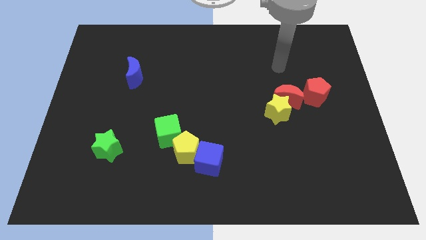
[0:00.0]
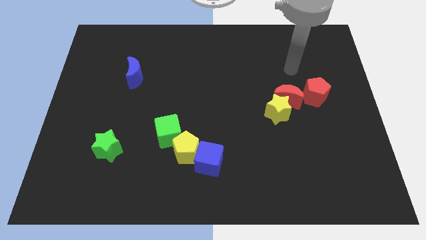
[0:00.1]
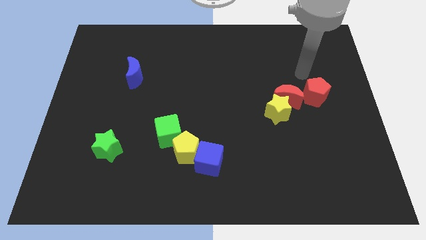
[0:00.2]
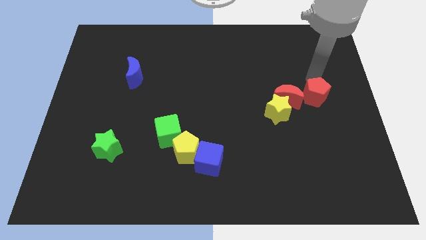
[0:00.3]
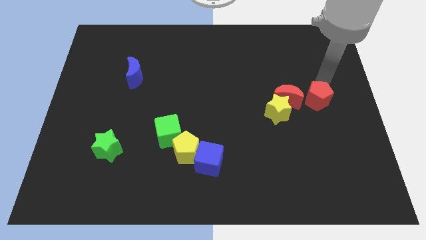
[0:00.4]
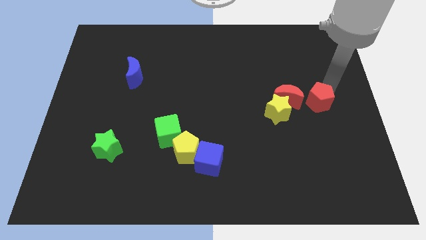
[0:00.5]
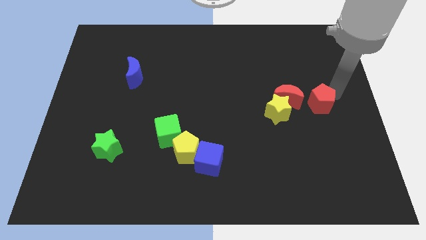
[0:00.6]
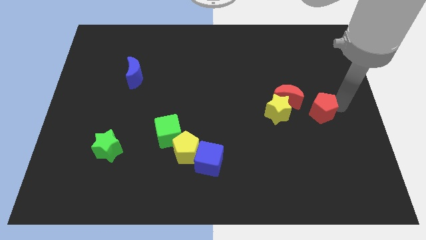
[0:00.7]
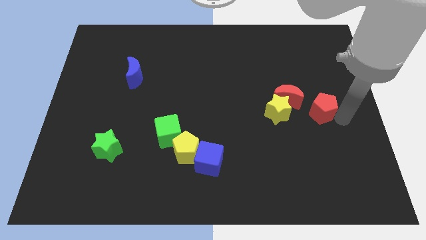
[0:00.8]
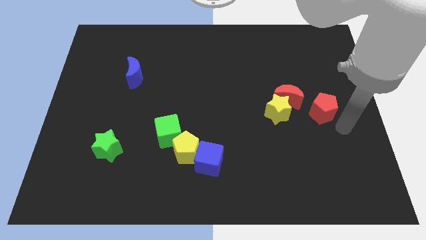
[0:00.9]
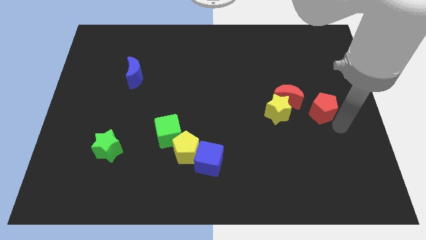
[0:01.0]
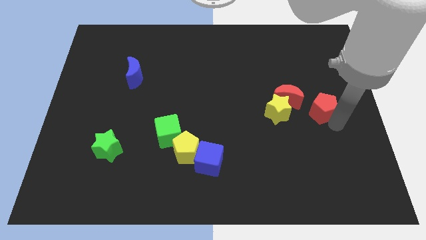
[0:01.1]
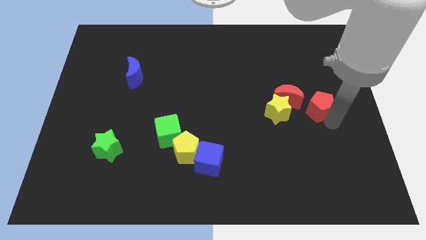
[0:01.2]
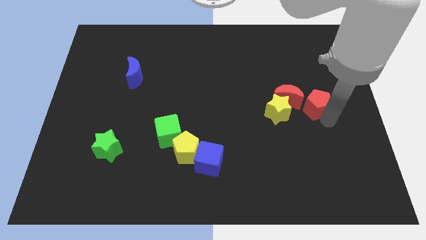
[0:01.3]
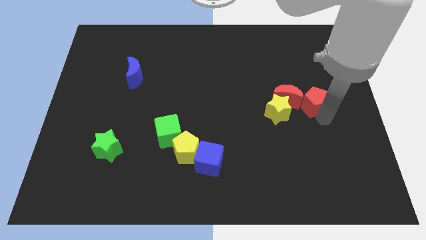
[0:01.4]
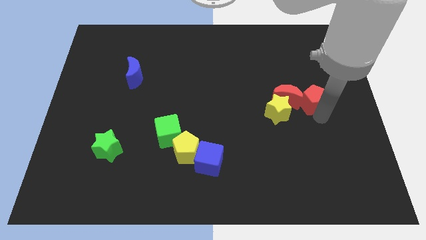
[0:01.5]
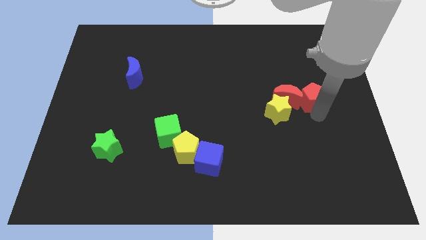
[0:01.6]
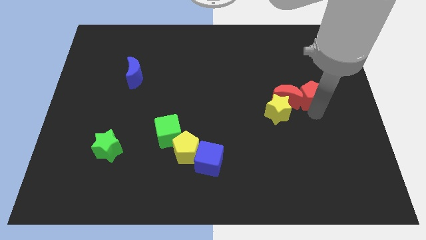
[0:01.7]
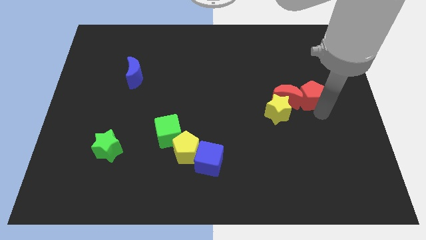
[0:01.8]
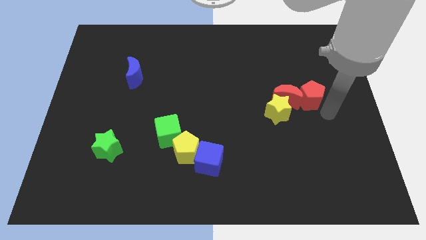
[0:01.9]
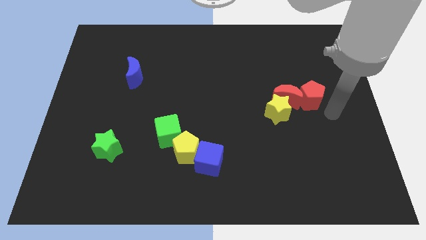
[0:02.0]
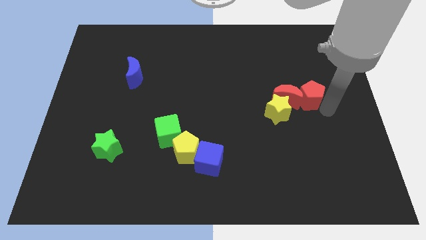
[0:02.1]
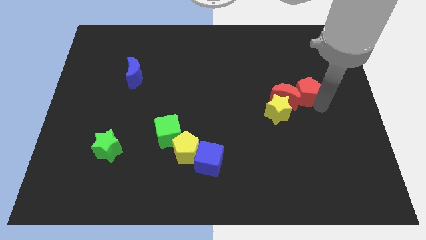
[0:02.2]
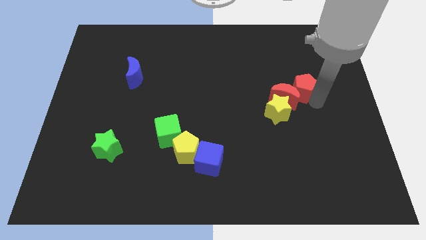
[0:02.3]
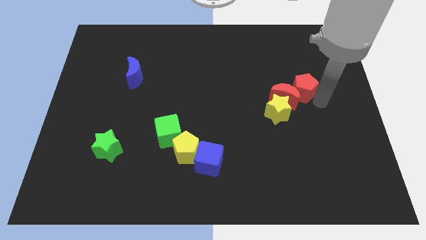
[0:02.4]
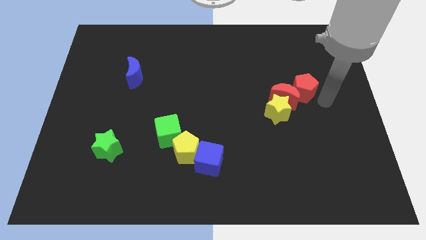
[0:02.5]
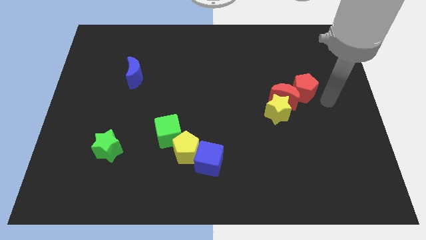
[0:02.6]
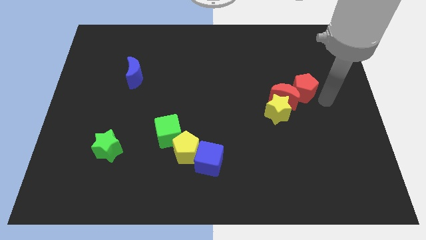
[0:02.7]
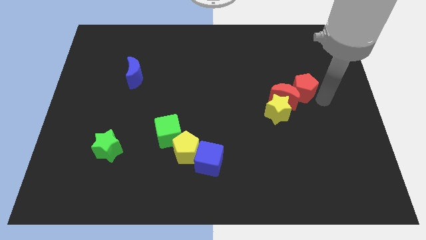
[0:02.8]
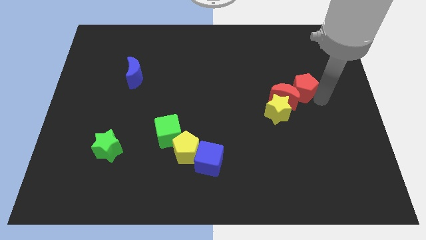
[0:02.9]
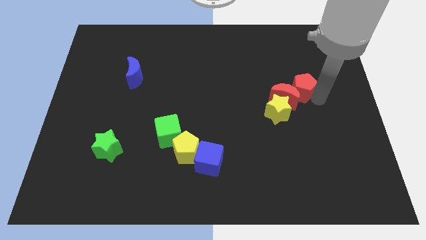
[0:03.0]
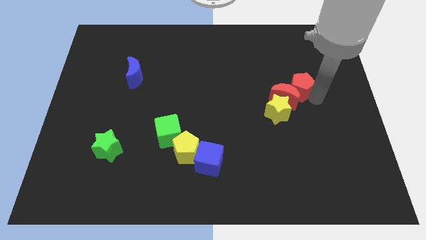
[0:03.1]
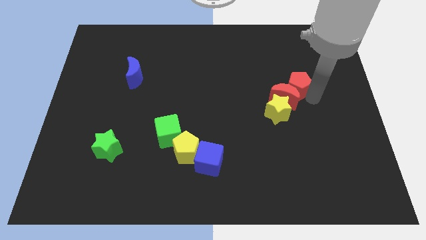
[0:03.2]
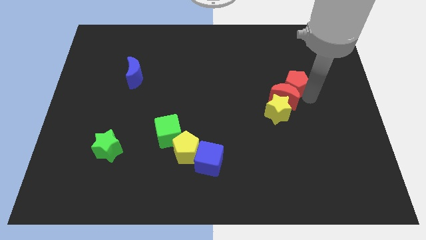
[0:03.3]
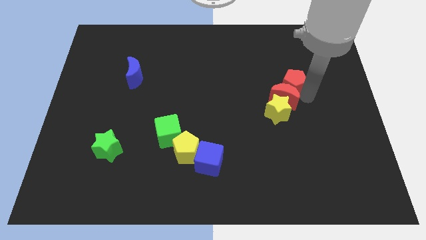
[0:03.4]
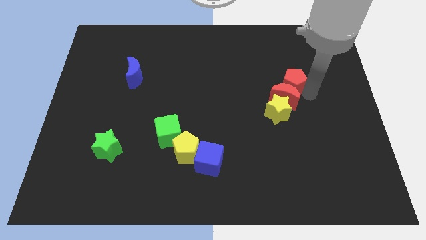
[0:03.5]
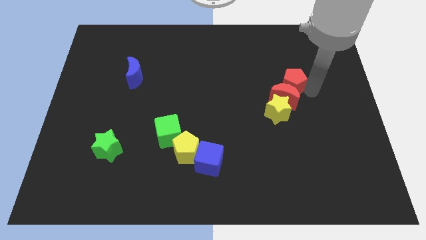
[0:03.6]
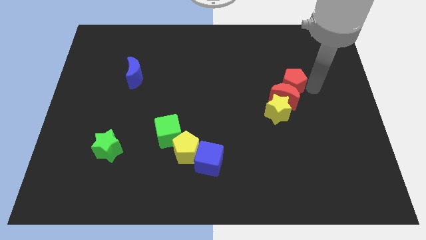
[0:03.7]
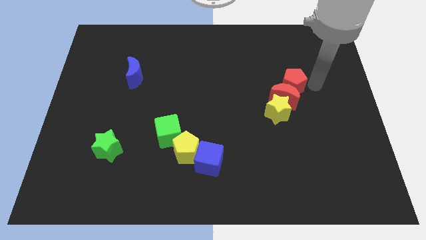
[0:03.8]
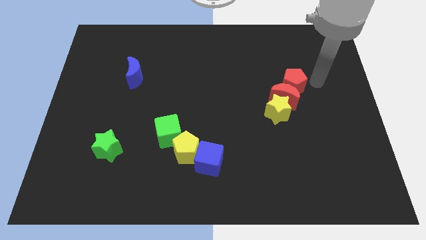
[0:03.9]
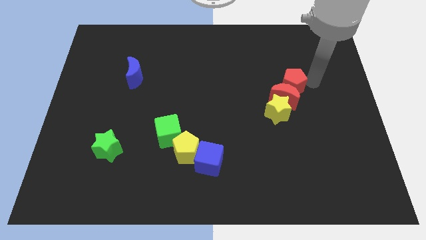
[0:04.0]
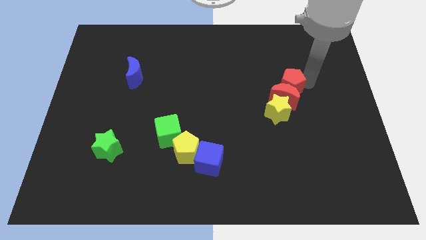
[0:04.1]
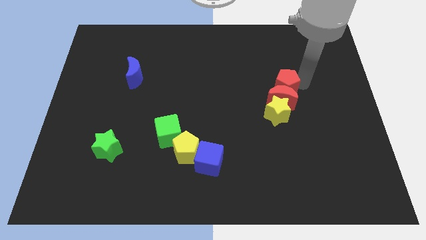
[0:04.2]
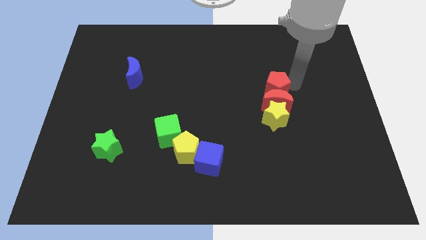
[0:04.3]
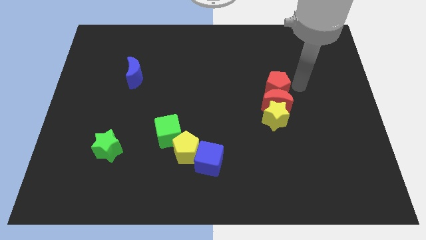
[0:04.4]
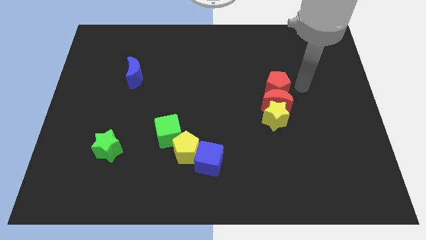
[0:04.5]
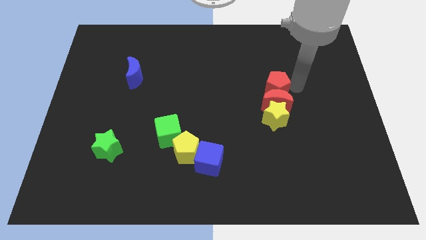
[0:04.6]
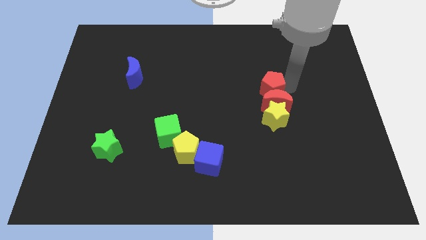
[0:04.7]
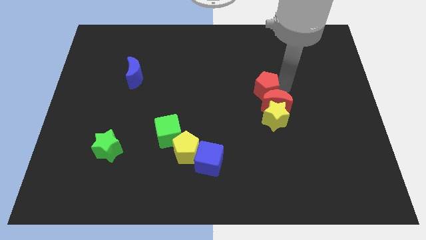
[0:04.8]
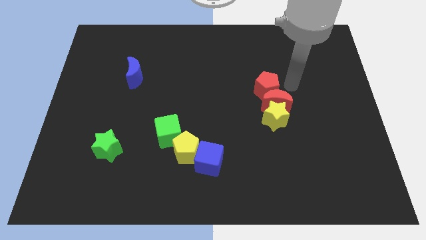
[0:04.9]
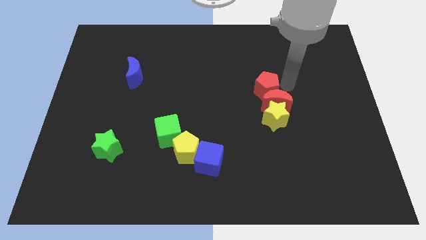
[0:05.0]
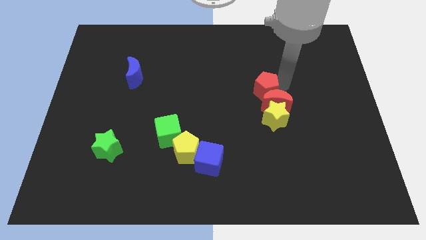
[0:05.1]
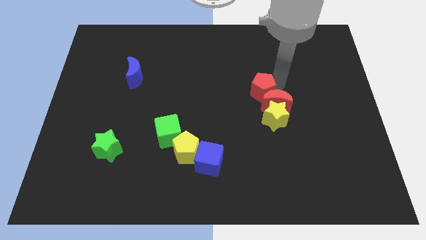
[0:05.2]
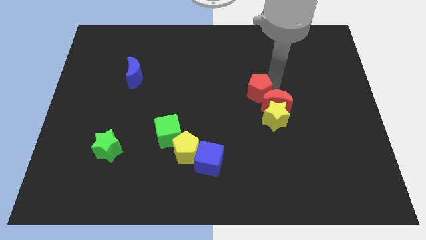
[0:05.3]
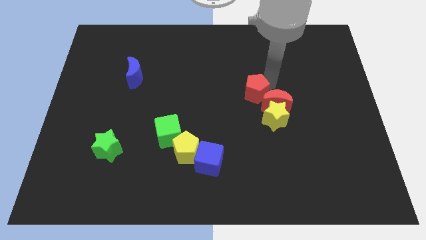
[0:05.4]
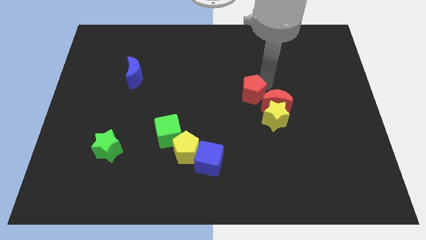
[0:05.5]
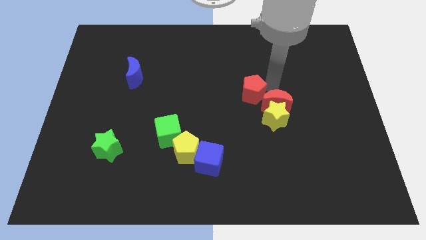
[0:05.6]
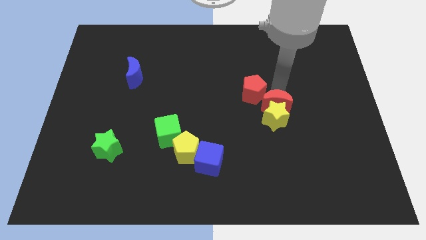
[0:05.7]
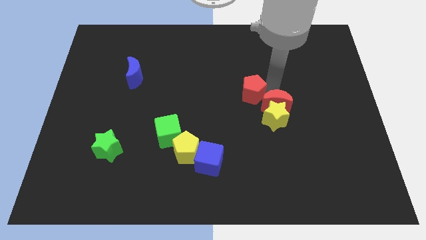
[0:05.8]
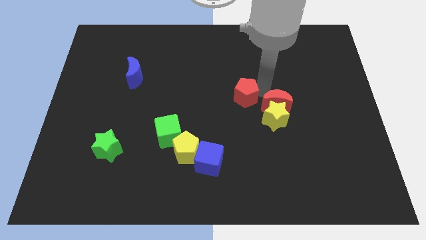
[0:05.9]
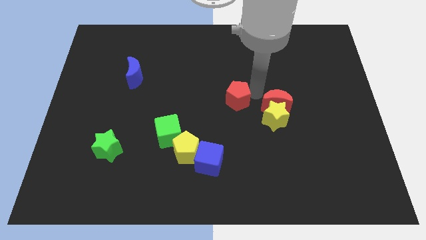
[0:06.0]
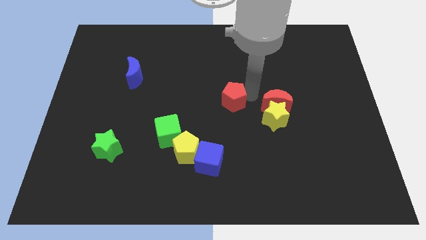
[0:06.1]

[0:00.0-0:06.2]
slide the red pentagon left

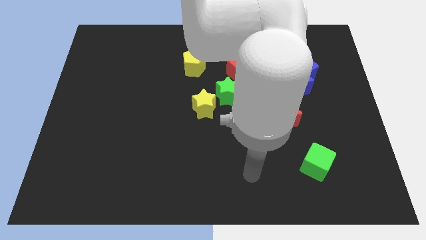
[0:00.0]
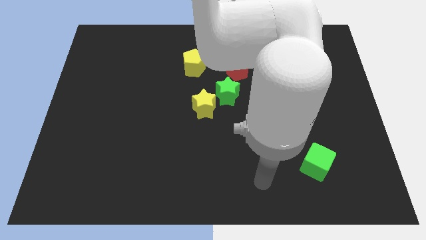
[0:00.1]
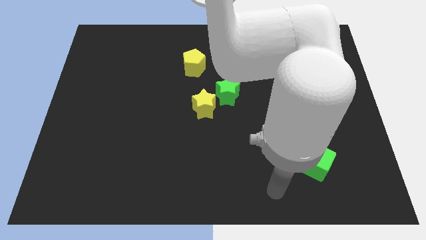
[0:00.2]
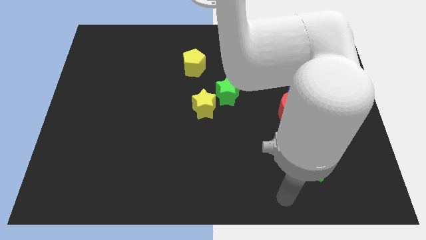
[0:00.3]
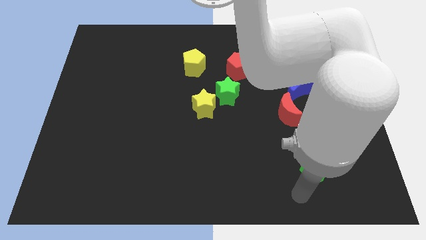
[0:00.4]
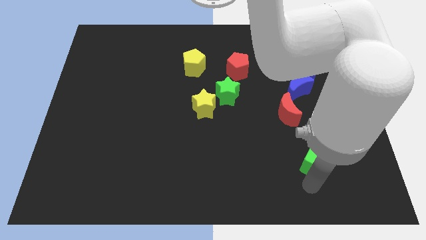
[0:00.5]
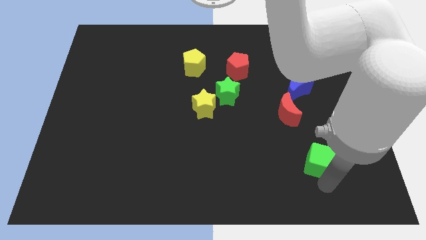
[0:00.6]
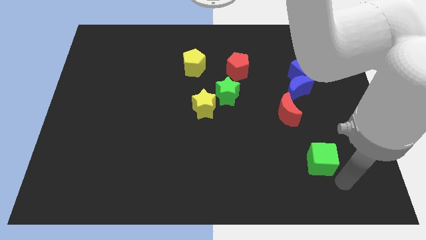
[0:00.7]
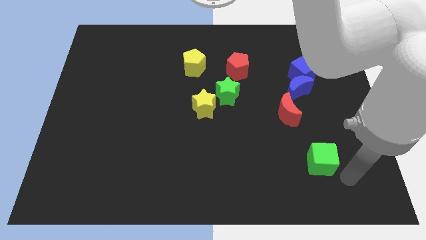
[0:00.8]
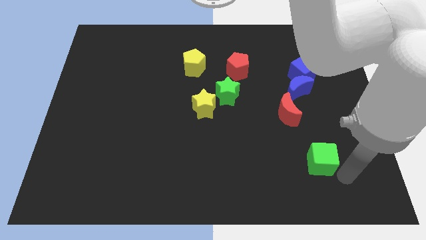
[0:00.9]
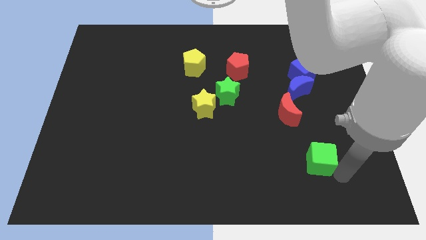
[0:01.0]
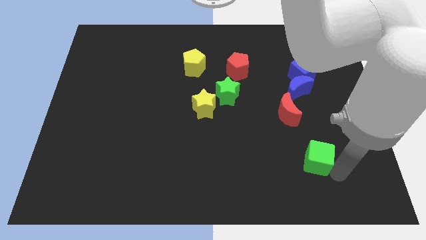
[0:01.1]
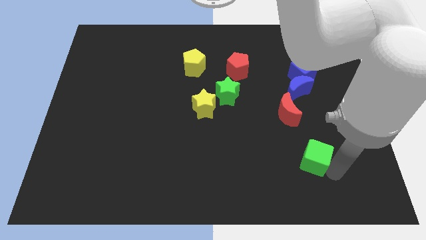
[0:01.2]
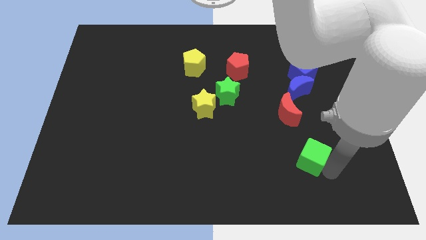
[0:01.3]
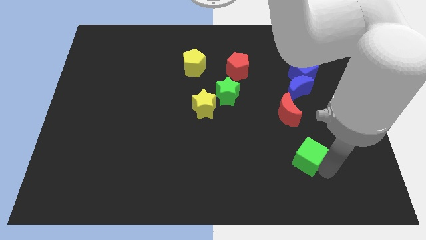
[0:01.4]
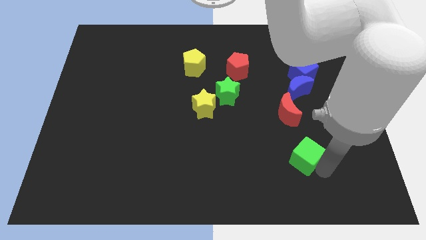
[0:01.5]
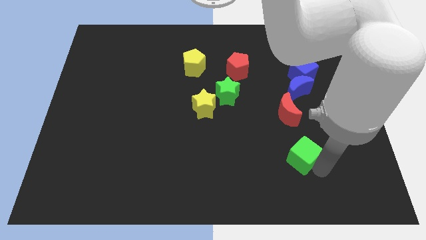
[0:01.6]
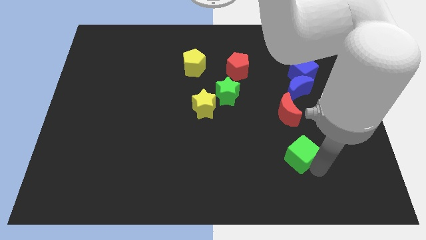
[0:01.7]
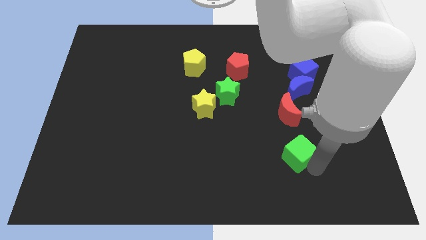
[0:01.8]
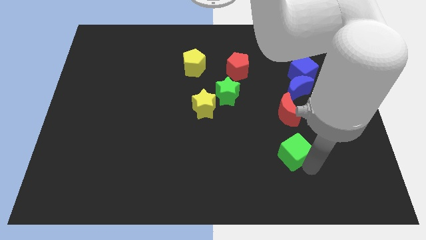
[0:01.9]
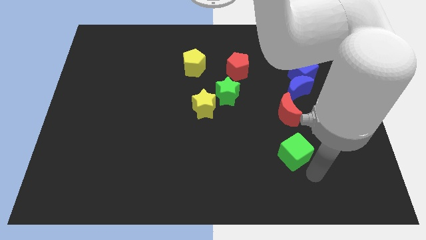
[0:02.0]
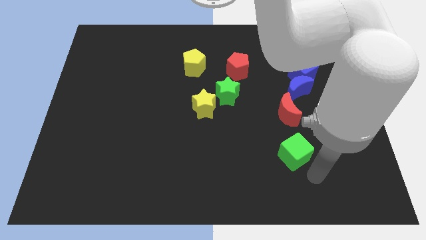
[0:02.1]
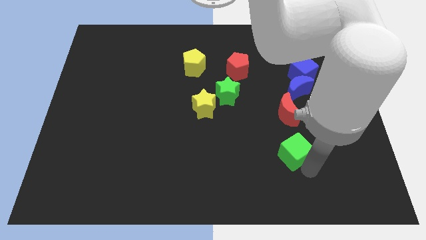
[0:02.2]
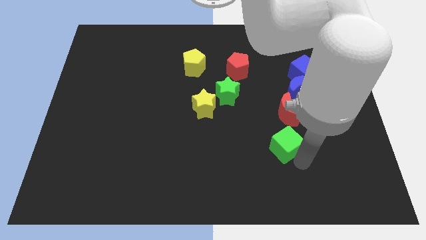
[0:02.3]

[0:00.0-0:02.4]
slightly push the green cube upwards and to the left diagonally
